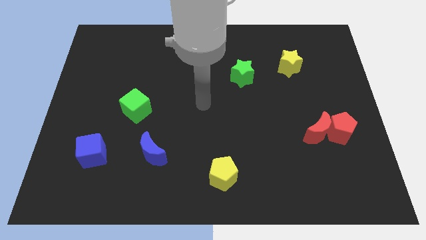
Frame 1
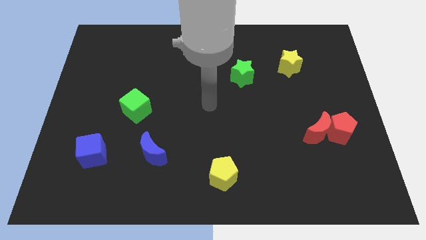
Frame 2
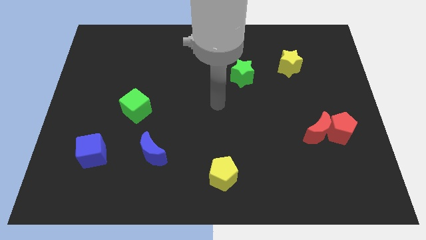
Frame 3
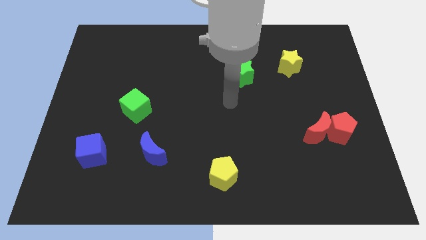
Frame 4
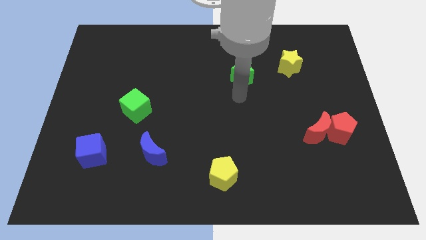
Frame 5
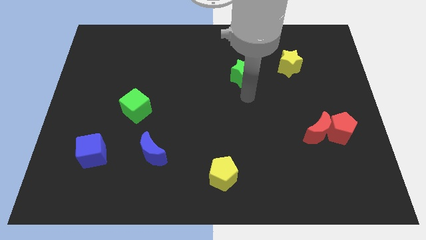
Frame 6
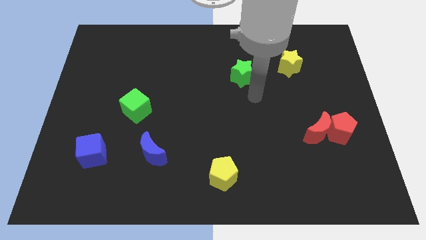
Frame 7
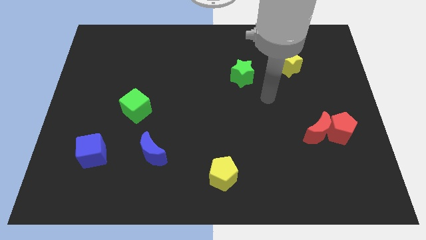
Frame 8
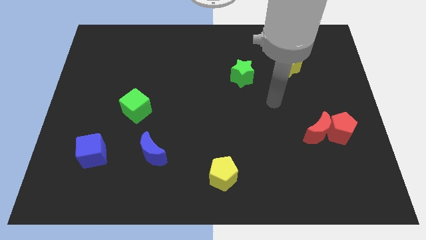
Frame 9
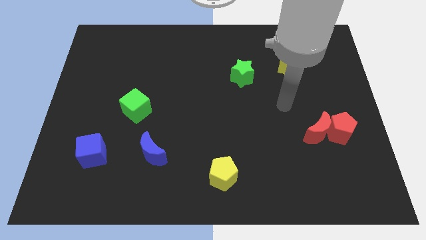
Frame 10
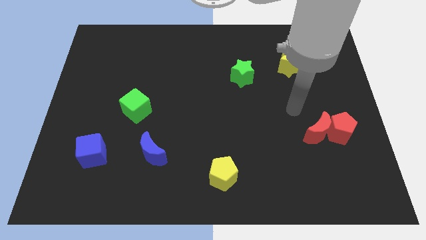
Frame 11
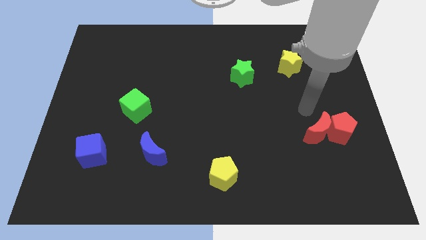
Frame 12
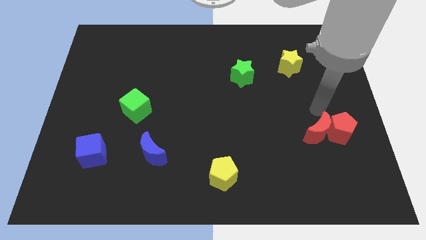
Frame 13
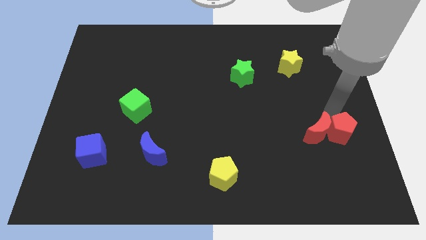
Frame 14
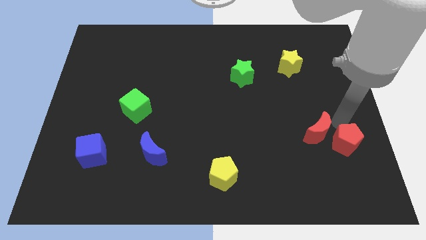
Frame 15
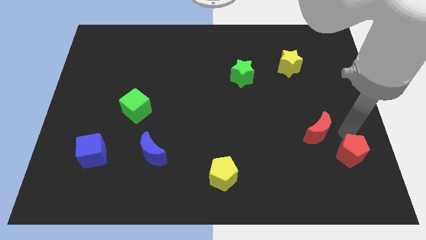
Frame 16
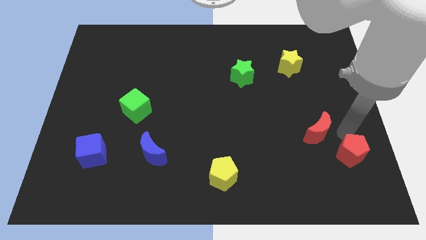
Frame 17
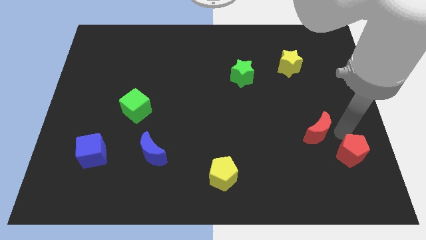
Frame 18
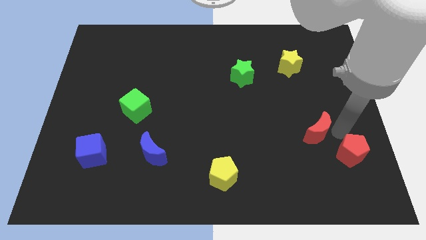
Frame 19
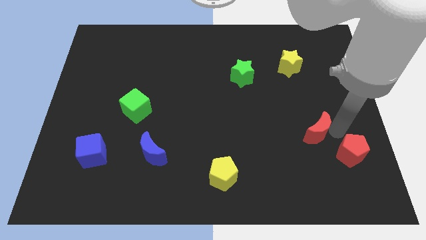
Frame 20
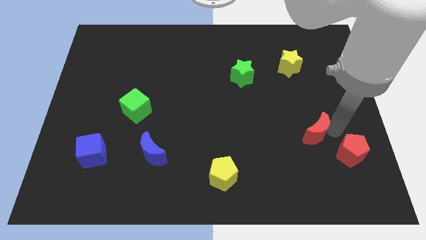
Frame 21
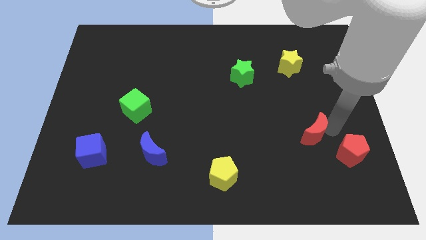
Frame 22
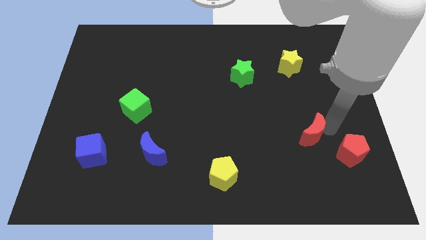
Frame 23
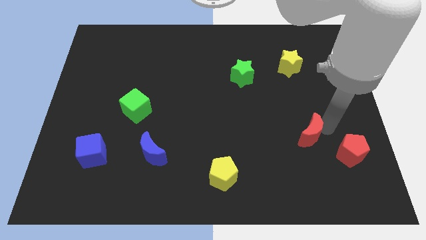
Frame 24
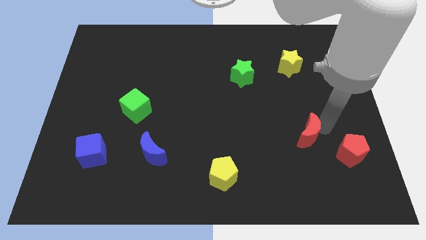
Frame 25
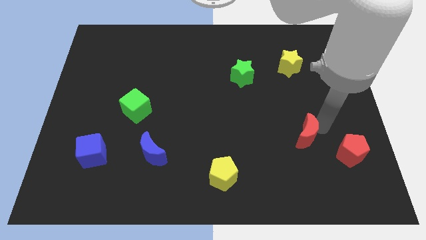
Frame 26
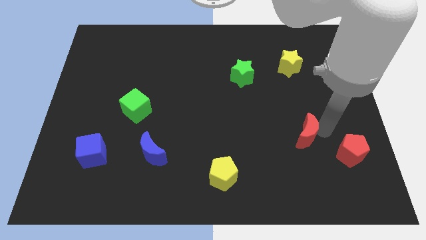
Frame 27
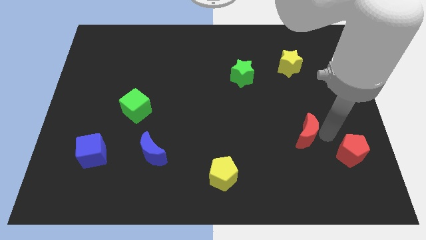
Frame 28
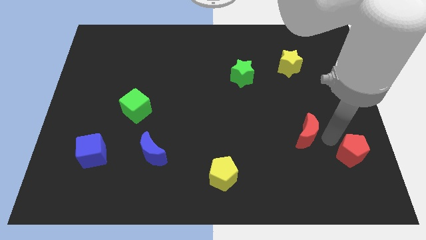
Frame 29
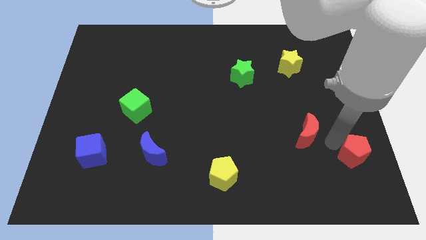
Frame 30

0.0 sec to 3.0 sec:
separate the red moon from the red pentagon

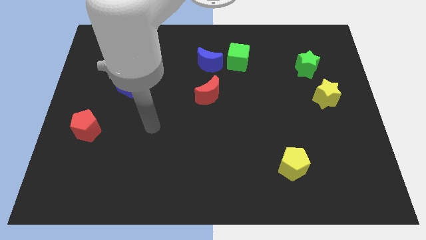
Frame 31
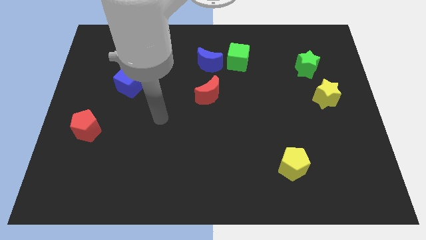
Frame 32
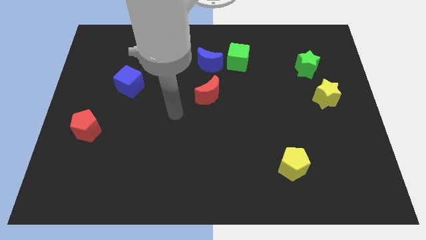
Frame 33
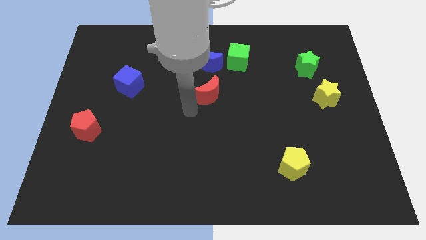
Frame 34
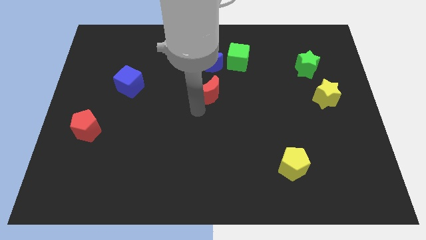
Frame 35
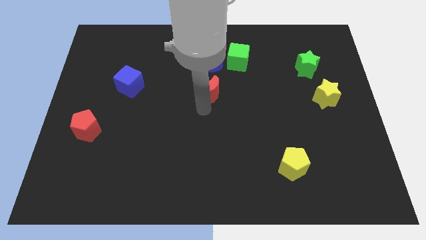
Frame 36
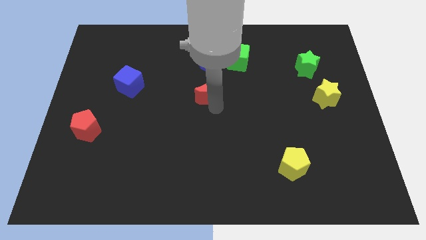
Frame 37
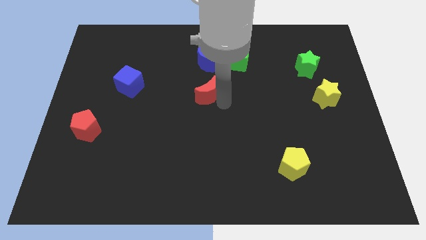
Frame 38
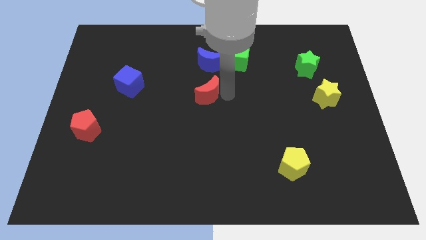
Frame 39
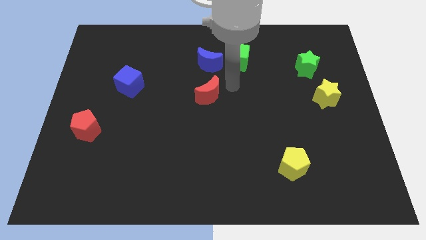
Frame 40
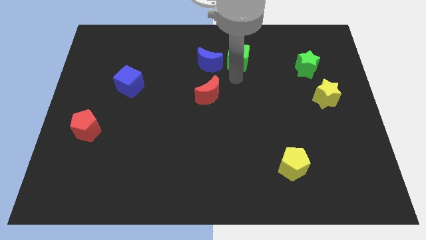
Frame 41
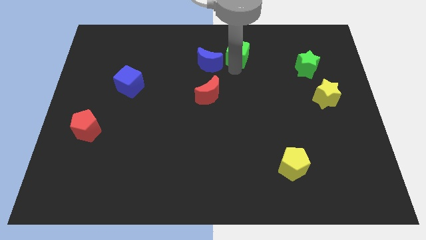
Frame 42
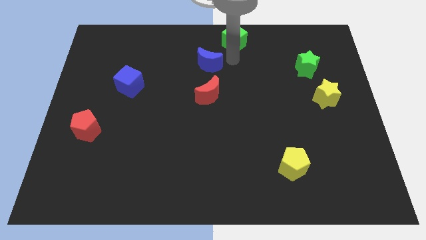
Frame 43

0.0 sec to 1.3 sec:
move the blue moon away from the green cube

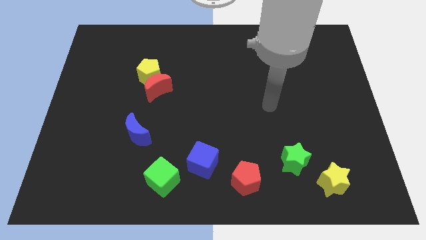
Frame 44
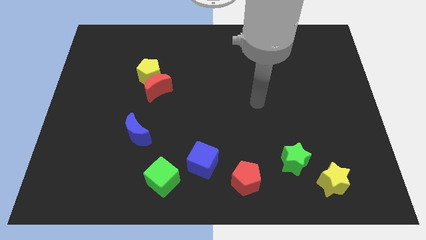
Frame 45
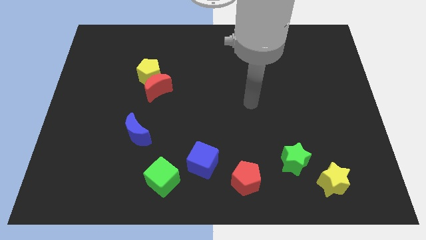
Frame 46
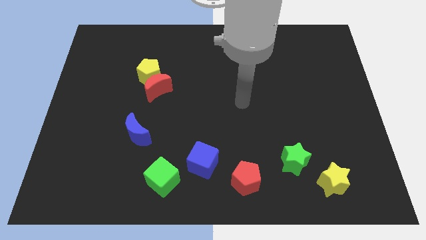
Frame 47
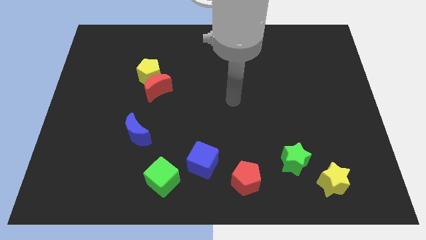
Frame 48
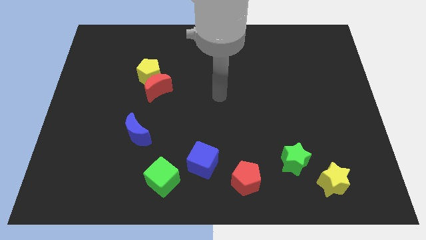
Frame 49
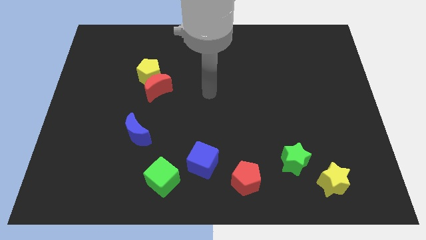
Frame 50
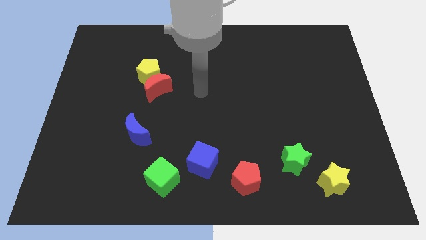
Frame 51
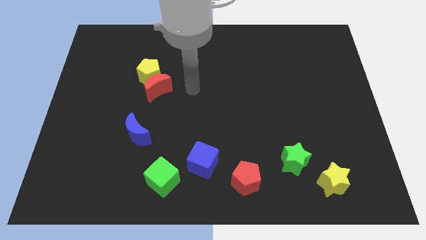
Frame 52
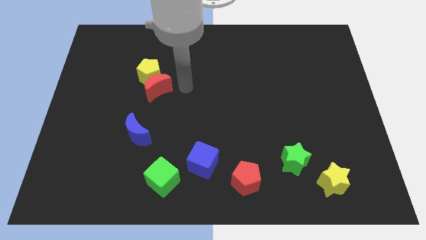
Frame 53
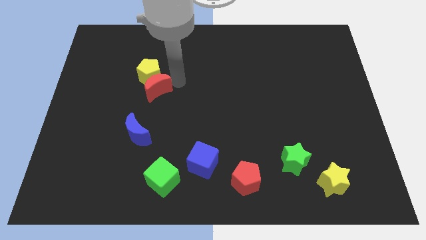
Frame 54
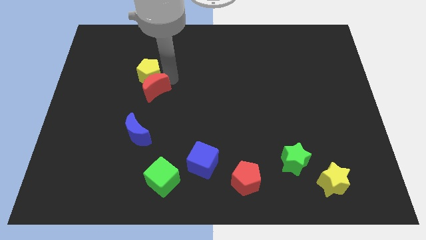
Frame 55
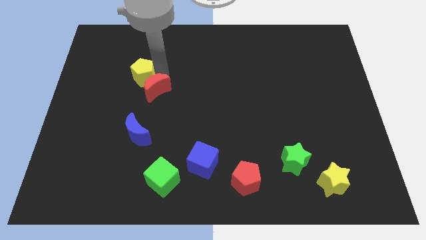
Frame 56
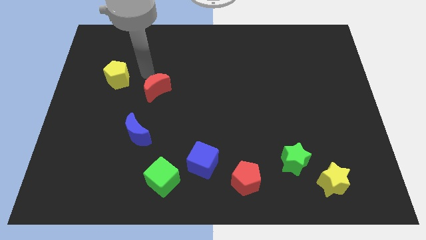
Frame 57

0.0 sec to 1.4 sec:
move the red moon away from the yellow pentagon

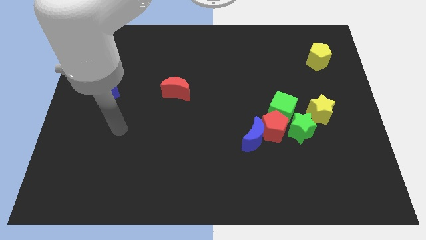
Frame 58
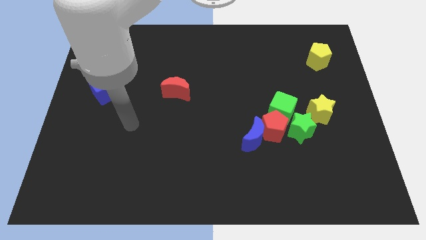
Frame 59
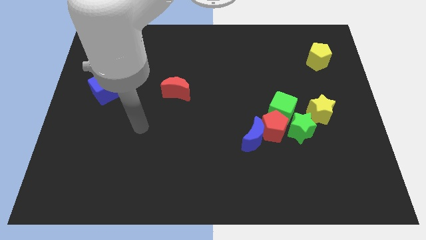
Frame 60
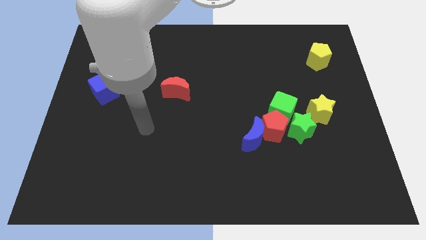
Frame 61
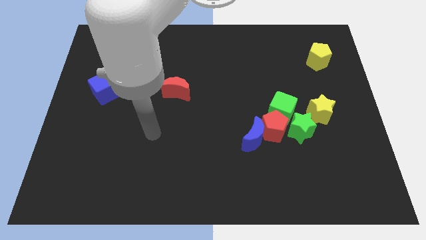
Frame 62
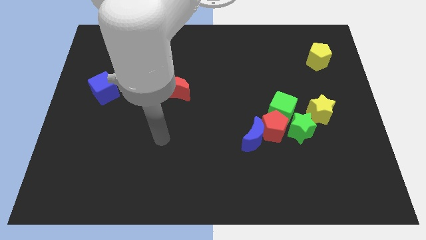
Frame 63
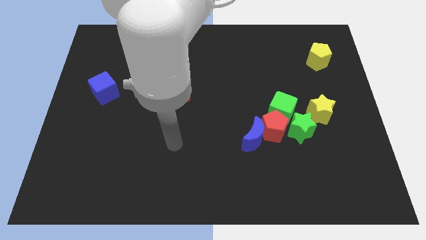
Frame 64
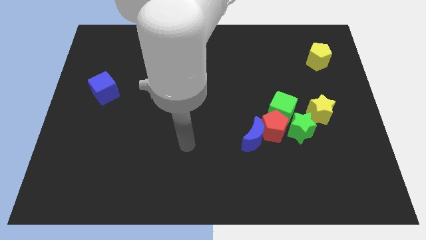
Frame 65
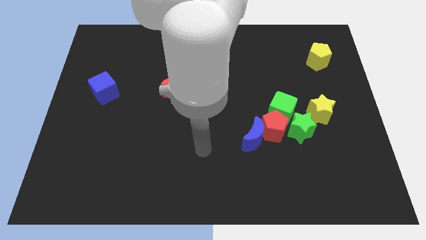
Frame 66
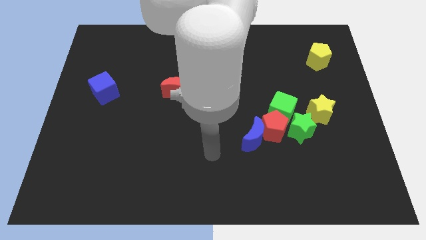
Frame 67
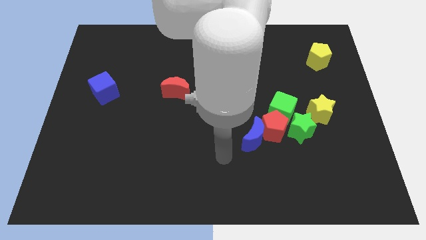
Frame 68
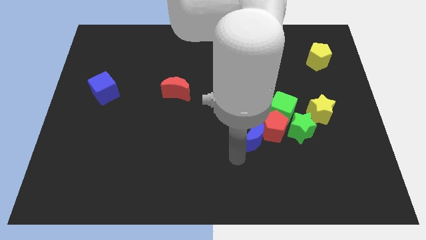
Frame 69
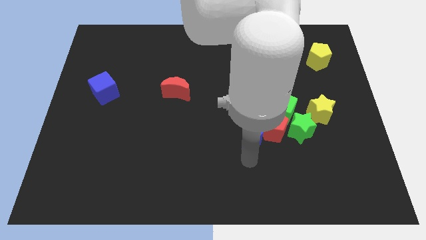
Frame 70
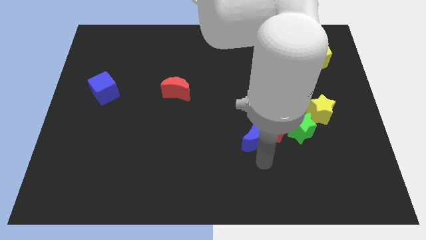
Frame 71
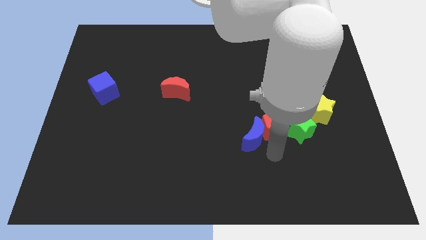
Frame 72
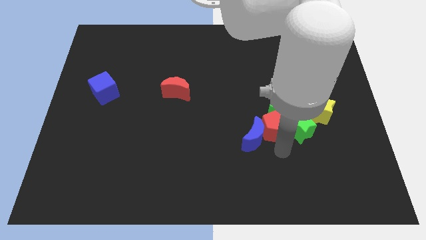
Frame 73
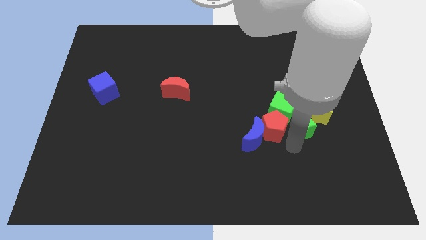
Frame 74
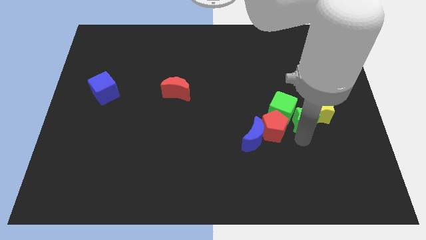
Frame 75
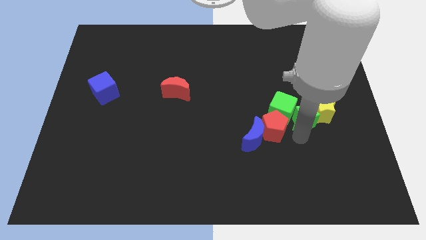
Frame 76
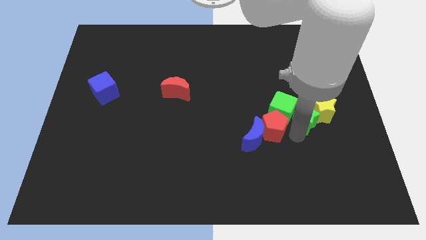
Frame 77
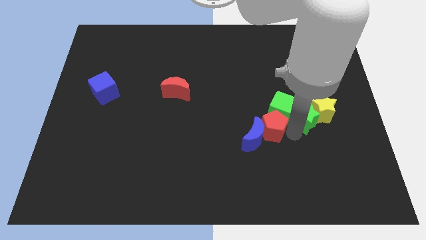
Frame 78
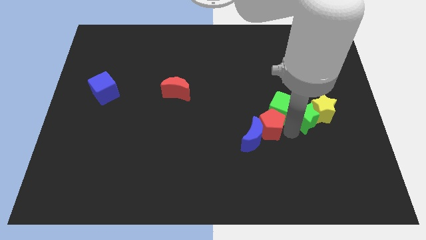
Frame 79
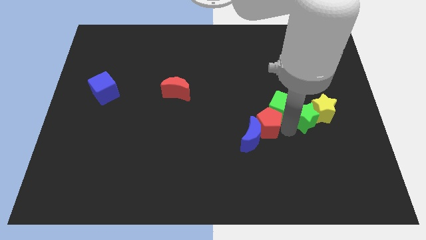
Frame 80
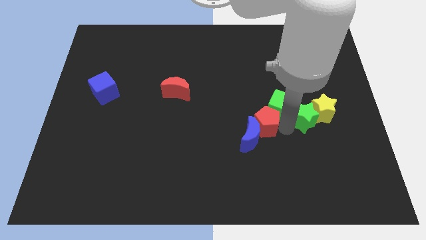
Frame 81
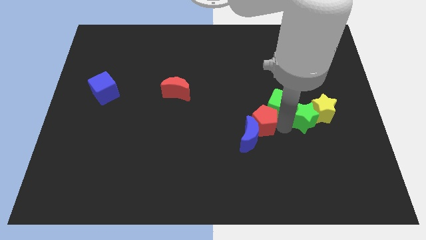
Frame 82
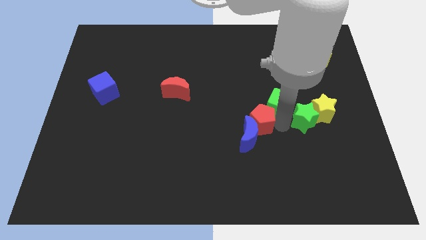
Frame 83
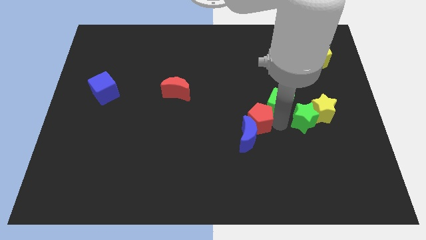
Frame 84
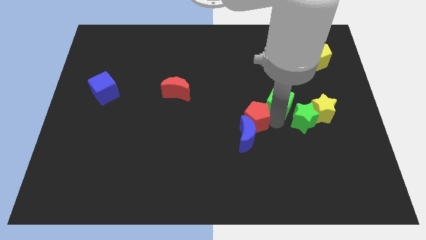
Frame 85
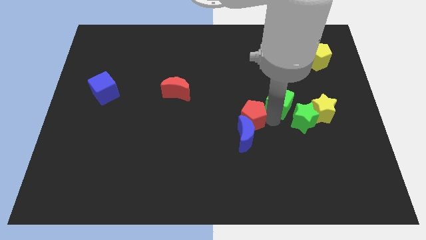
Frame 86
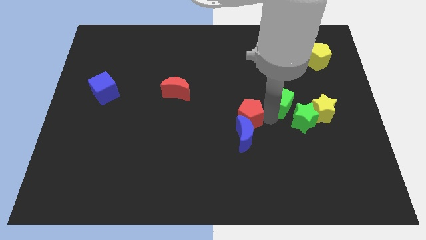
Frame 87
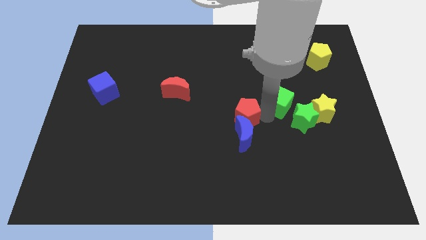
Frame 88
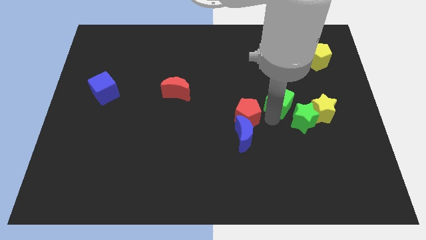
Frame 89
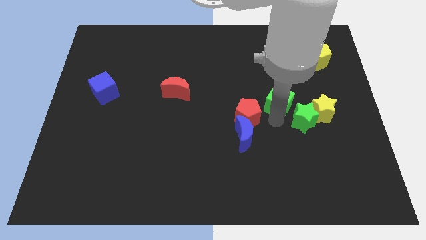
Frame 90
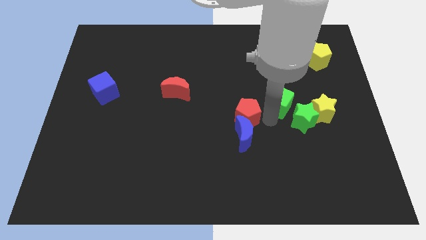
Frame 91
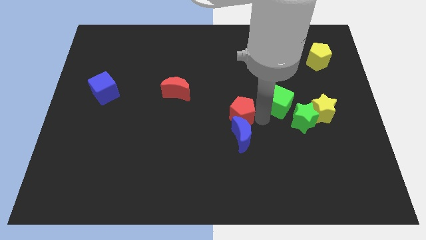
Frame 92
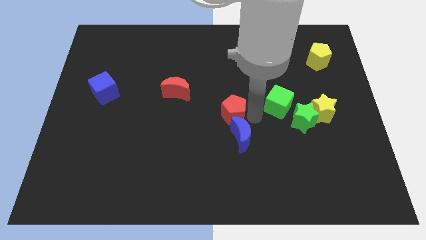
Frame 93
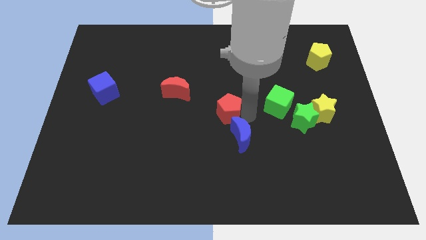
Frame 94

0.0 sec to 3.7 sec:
separate the red pentagon from the group
